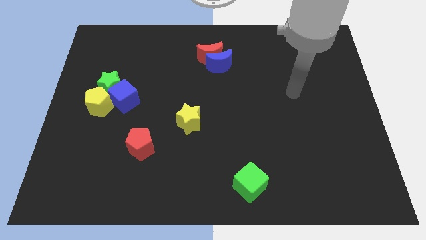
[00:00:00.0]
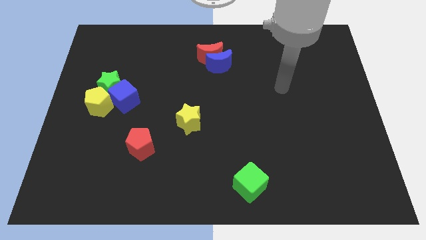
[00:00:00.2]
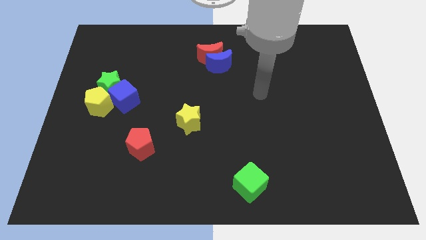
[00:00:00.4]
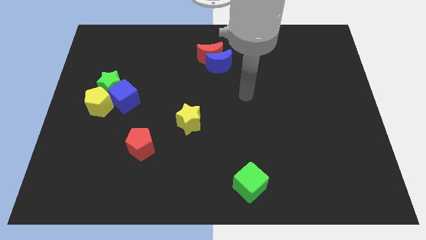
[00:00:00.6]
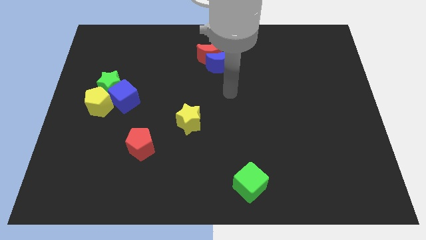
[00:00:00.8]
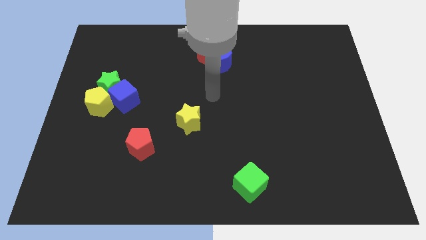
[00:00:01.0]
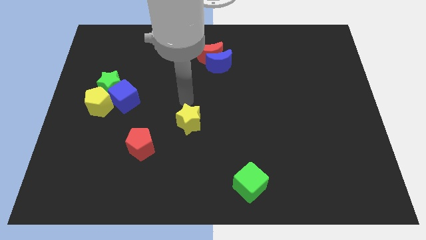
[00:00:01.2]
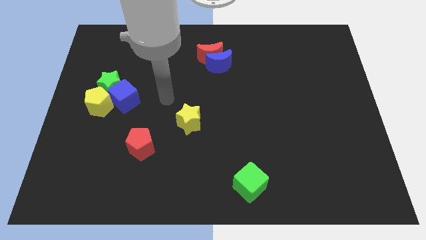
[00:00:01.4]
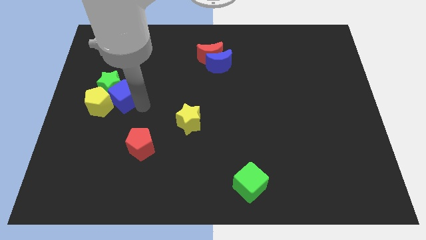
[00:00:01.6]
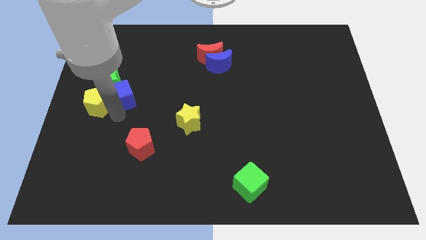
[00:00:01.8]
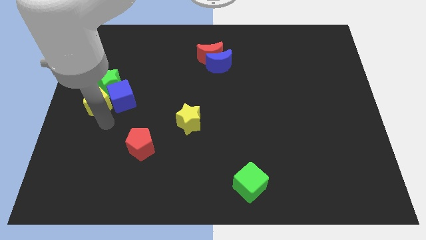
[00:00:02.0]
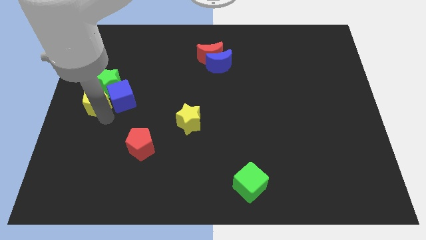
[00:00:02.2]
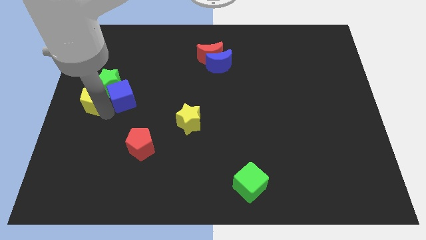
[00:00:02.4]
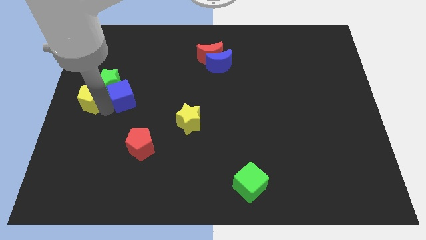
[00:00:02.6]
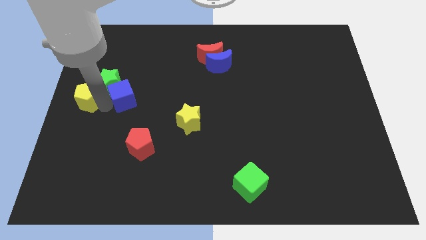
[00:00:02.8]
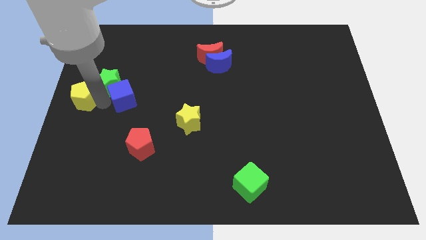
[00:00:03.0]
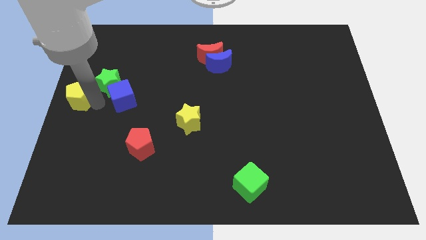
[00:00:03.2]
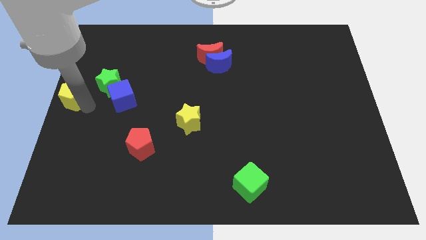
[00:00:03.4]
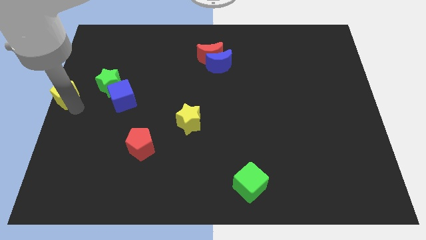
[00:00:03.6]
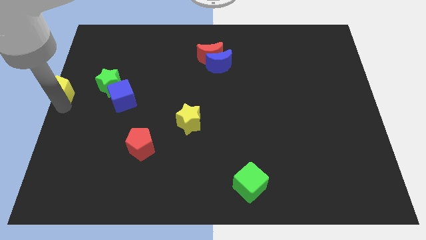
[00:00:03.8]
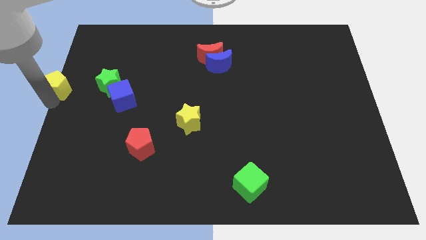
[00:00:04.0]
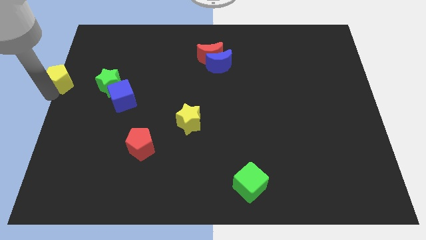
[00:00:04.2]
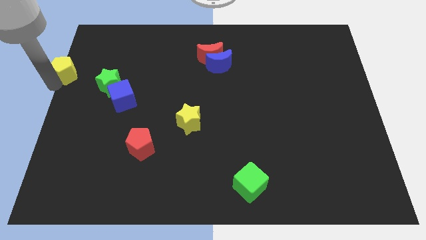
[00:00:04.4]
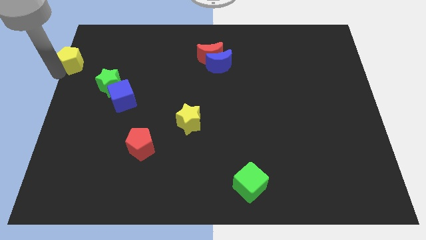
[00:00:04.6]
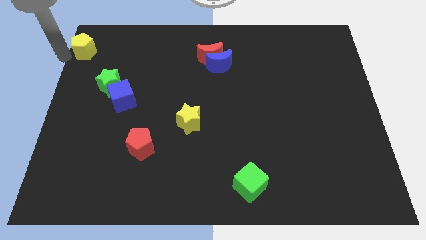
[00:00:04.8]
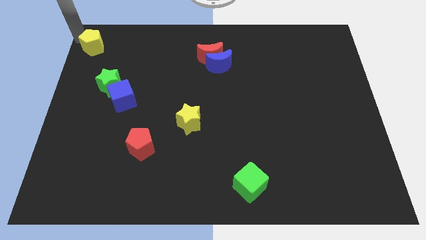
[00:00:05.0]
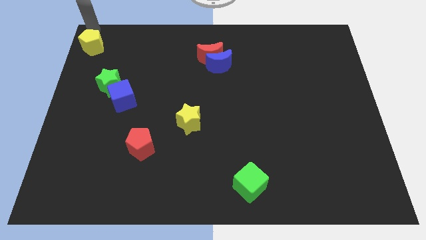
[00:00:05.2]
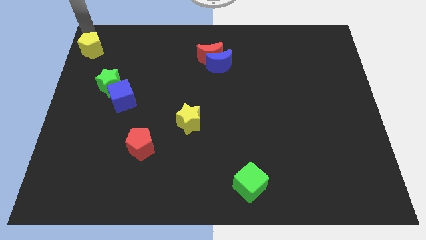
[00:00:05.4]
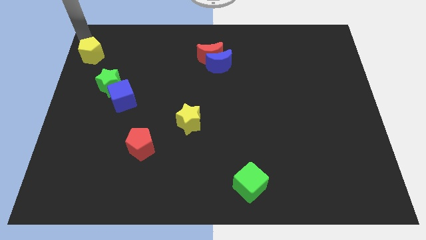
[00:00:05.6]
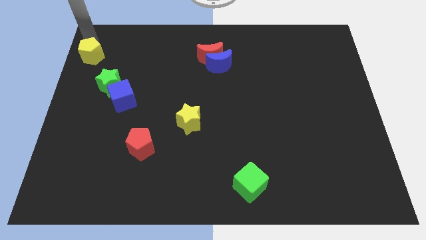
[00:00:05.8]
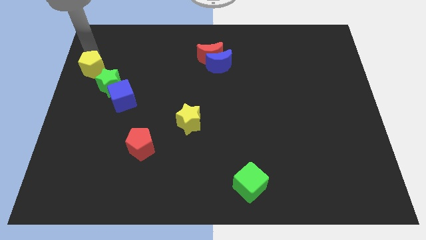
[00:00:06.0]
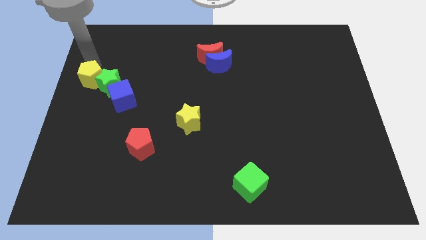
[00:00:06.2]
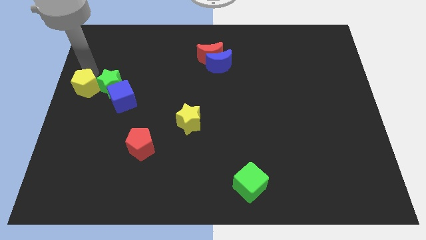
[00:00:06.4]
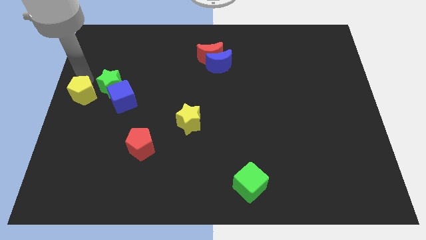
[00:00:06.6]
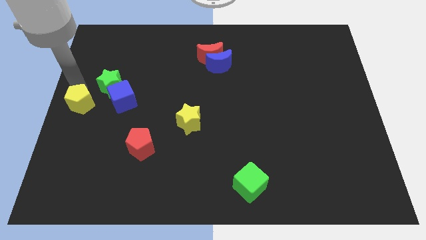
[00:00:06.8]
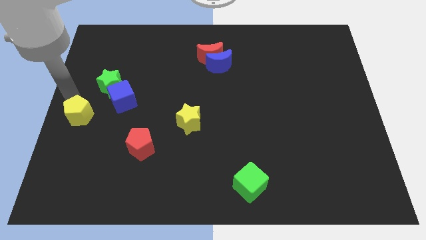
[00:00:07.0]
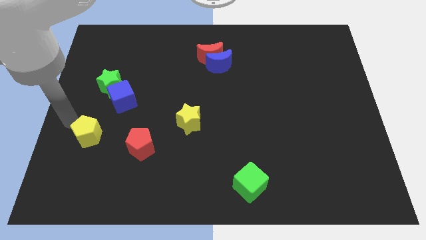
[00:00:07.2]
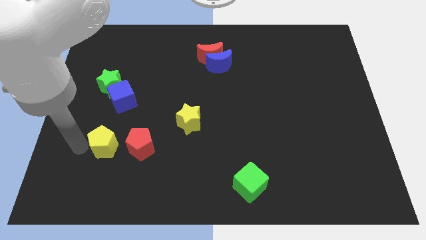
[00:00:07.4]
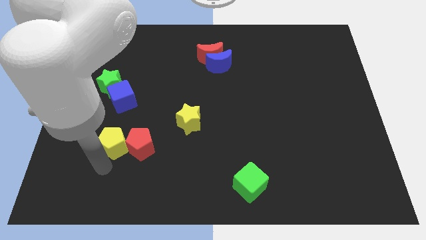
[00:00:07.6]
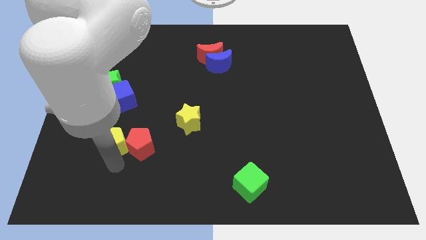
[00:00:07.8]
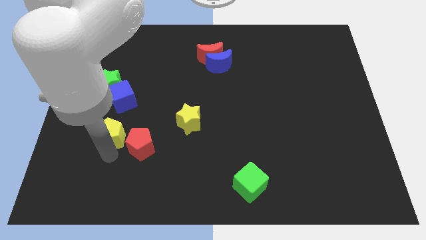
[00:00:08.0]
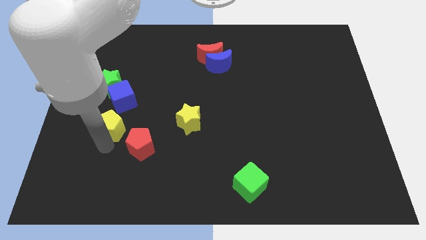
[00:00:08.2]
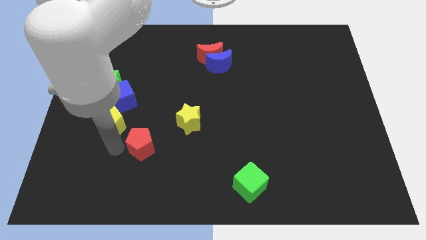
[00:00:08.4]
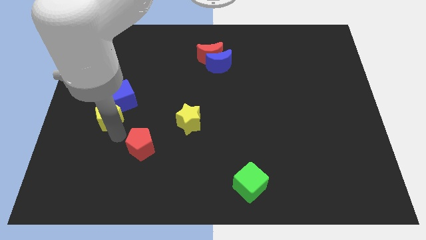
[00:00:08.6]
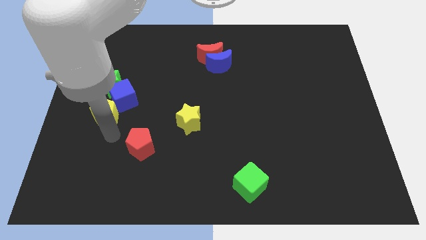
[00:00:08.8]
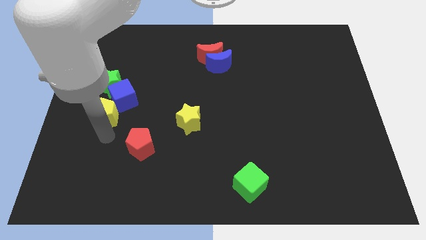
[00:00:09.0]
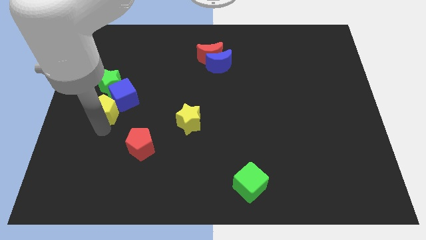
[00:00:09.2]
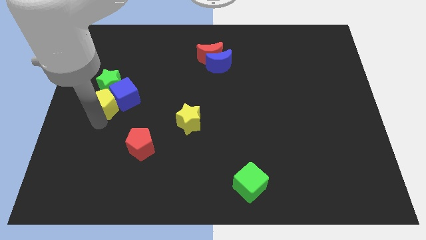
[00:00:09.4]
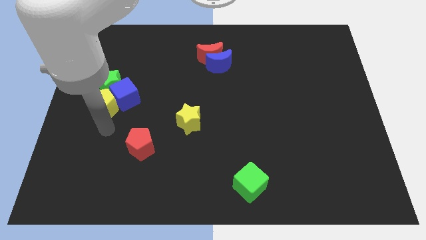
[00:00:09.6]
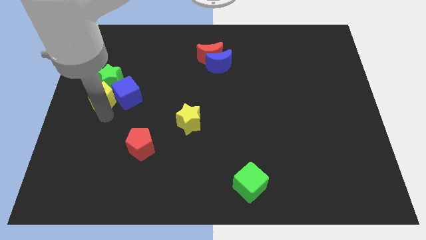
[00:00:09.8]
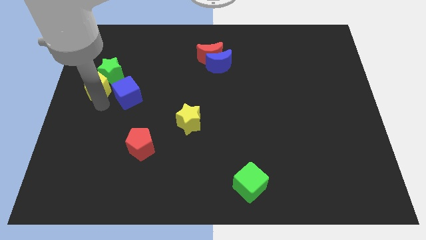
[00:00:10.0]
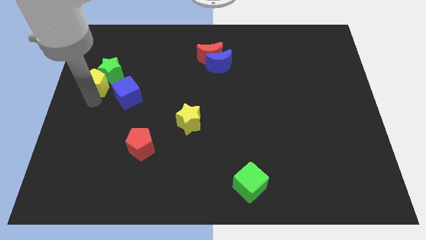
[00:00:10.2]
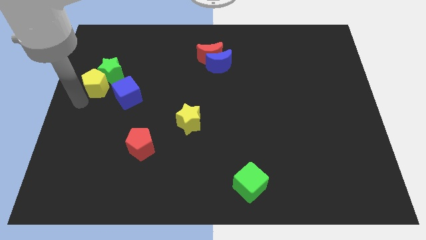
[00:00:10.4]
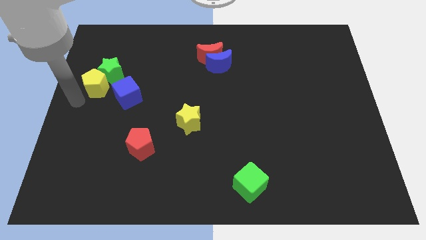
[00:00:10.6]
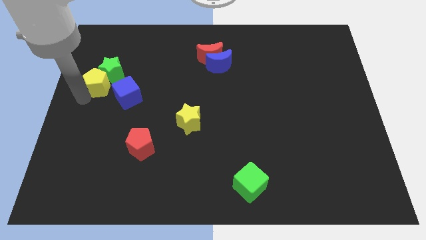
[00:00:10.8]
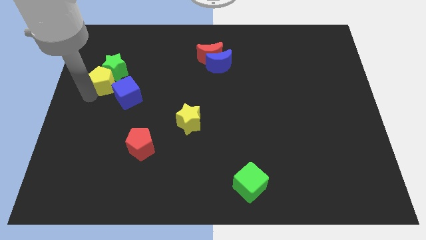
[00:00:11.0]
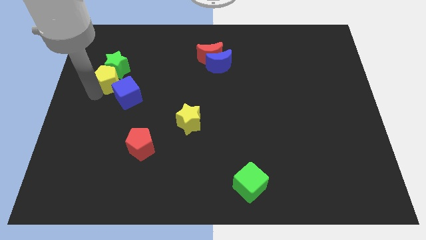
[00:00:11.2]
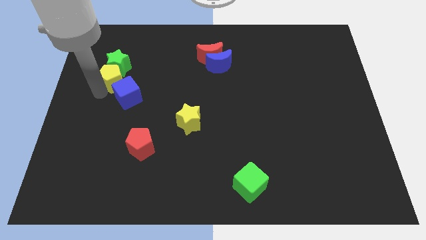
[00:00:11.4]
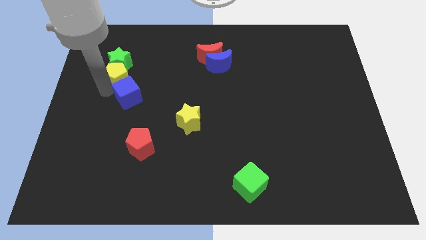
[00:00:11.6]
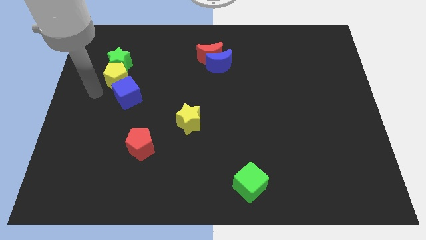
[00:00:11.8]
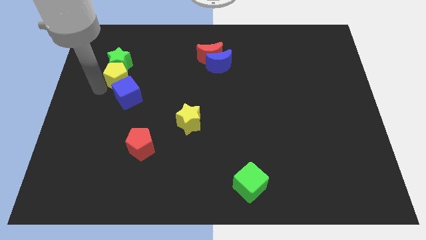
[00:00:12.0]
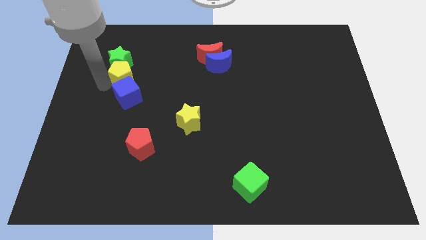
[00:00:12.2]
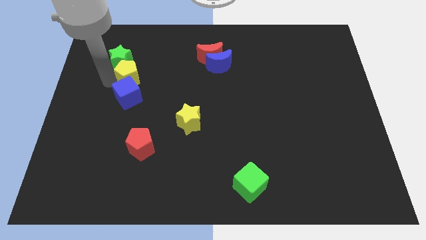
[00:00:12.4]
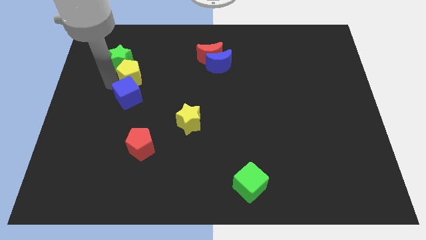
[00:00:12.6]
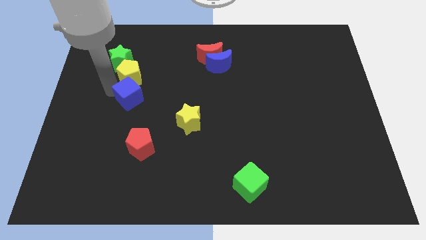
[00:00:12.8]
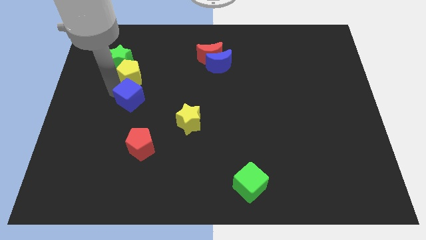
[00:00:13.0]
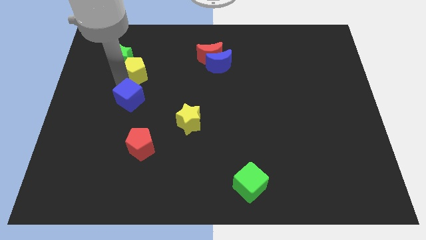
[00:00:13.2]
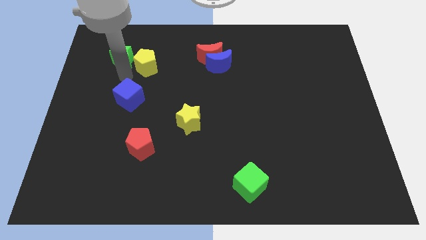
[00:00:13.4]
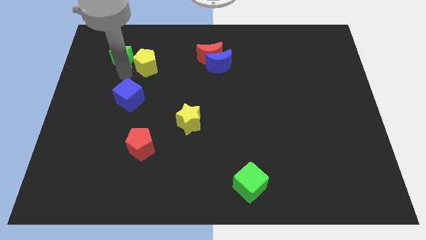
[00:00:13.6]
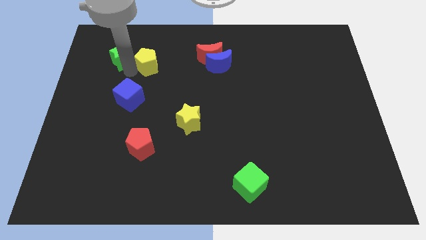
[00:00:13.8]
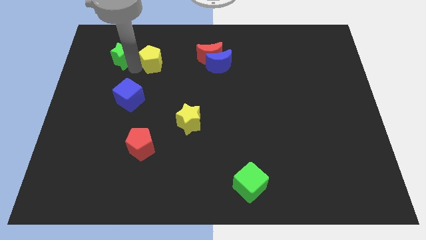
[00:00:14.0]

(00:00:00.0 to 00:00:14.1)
put the yellow pentagon to the left side of the red moon
